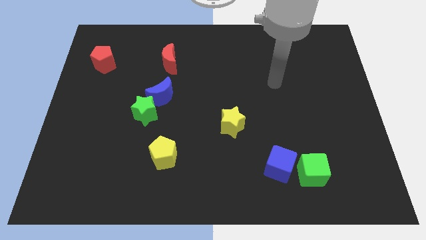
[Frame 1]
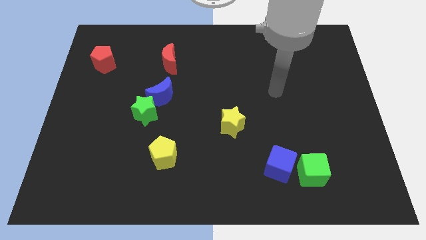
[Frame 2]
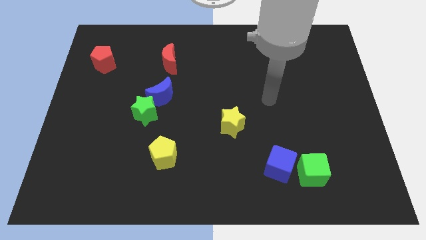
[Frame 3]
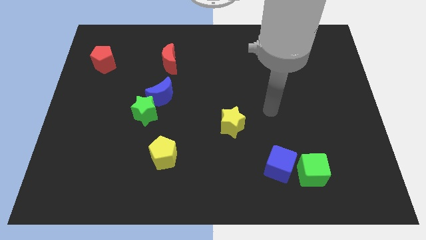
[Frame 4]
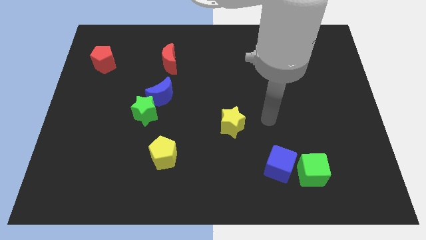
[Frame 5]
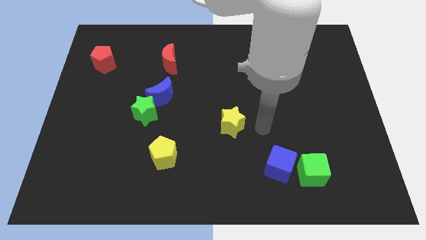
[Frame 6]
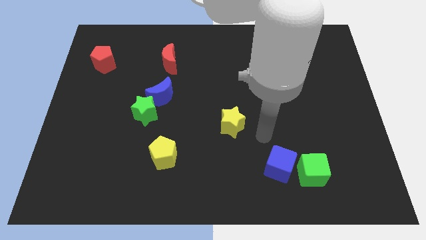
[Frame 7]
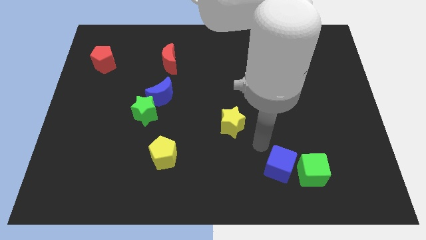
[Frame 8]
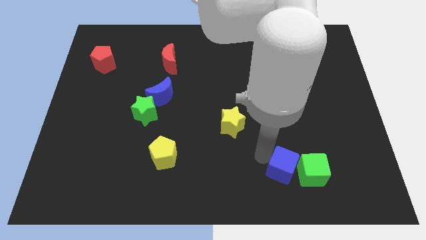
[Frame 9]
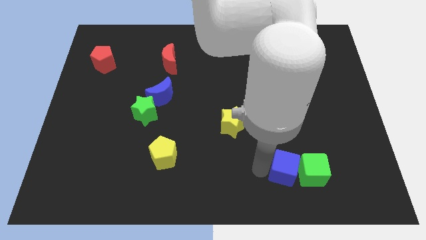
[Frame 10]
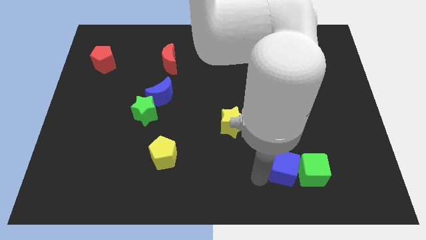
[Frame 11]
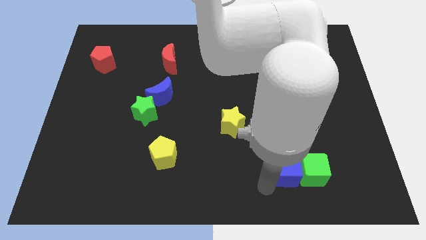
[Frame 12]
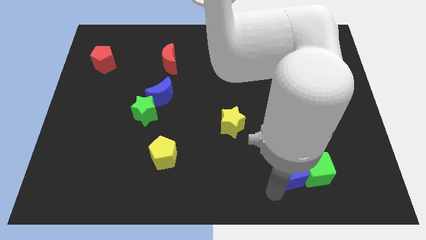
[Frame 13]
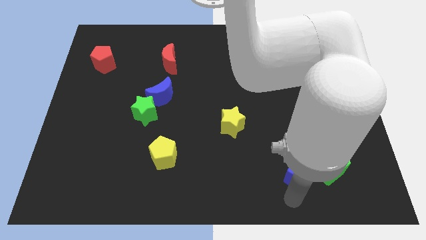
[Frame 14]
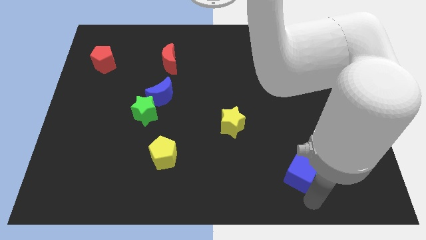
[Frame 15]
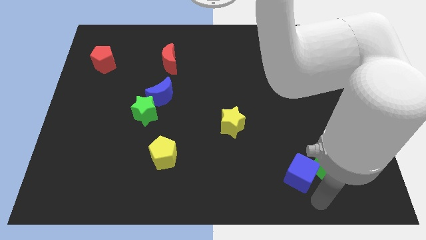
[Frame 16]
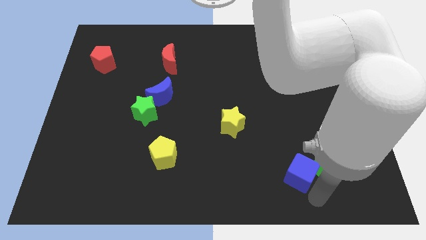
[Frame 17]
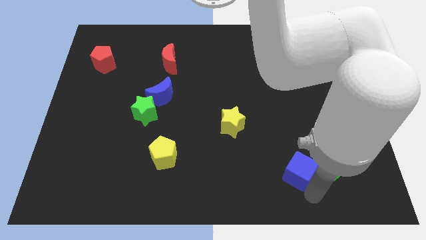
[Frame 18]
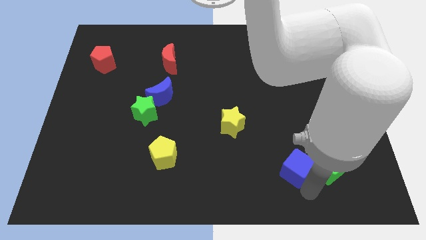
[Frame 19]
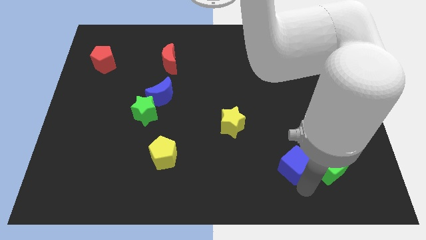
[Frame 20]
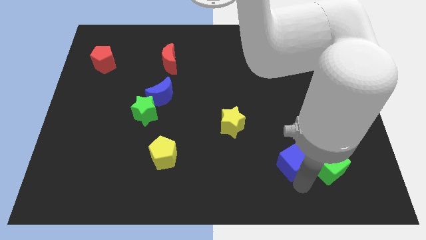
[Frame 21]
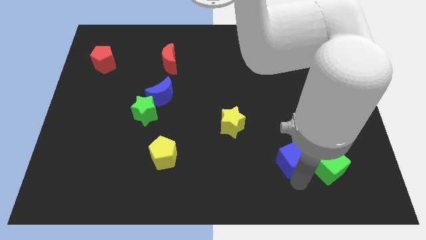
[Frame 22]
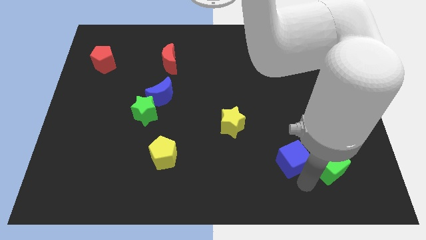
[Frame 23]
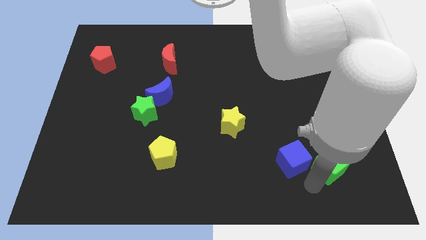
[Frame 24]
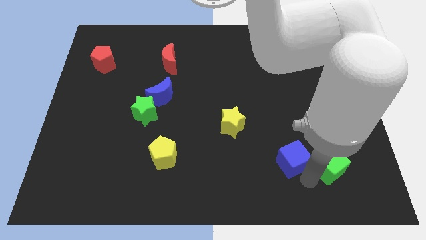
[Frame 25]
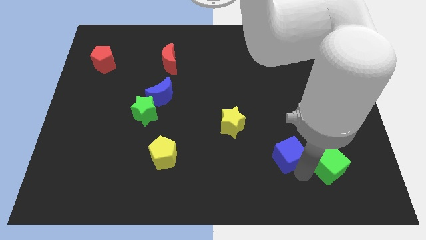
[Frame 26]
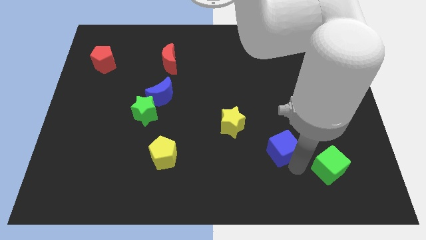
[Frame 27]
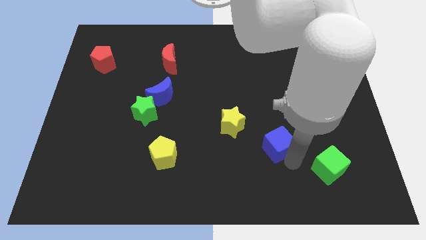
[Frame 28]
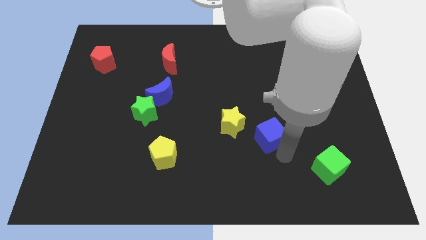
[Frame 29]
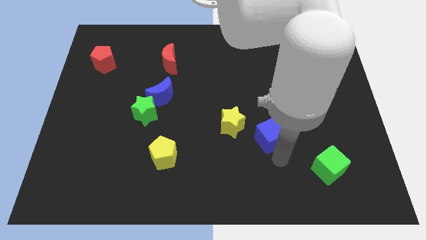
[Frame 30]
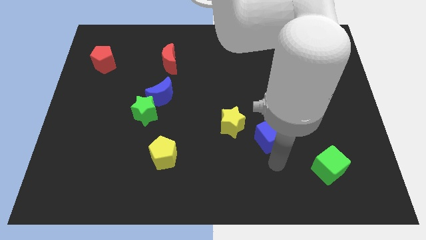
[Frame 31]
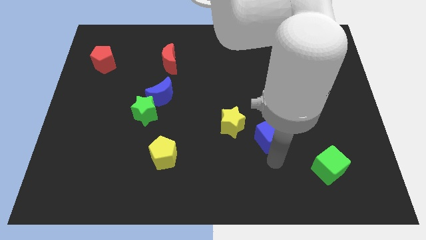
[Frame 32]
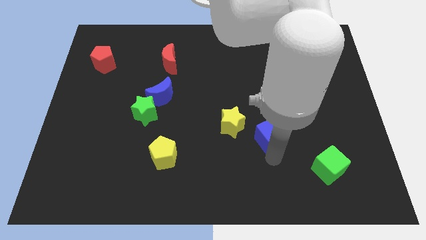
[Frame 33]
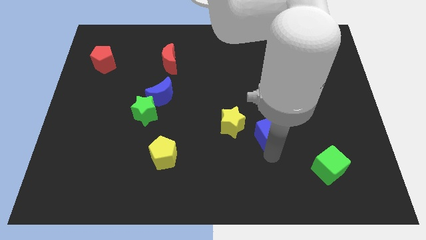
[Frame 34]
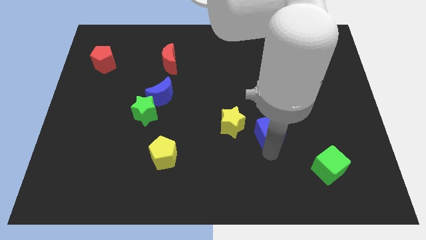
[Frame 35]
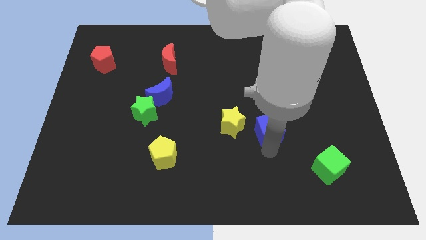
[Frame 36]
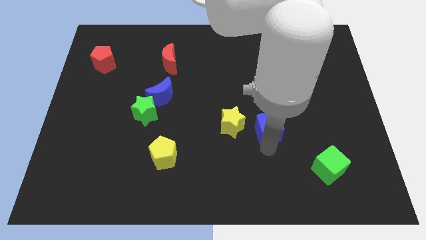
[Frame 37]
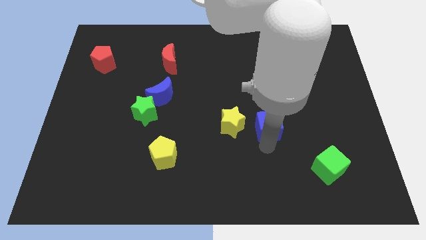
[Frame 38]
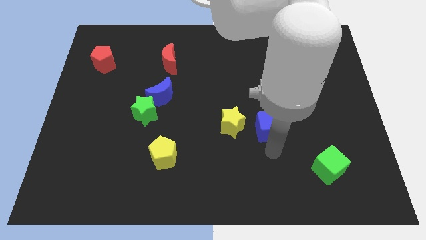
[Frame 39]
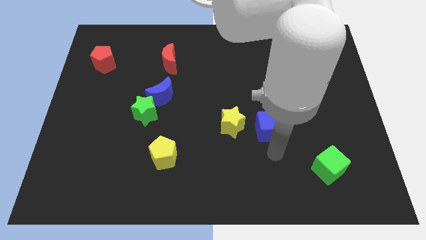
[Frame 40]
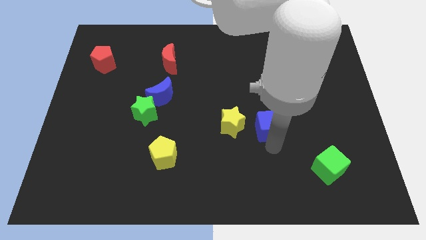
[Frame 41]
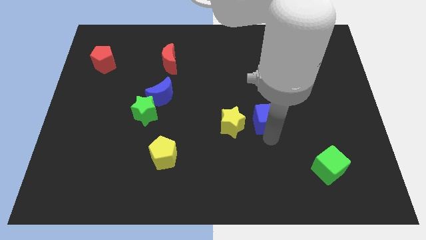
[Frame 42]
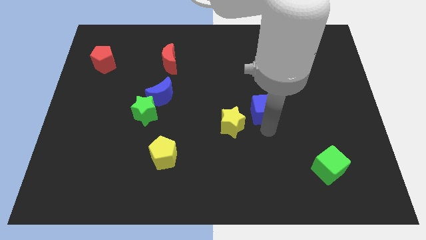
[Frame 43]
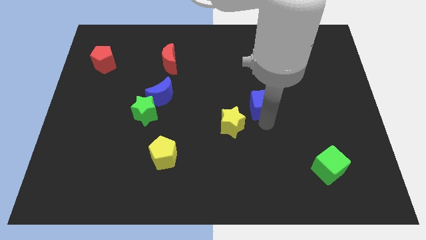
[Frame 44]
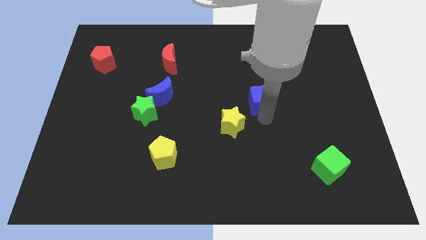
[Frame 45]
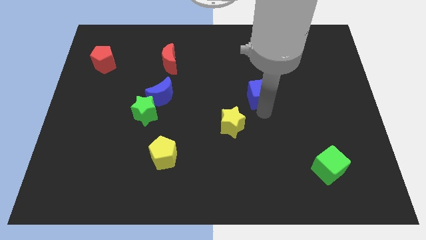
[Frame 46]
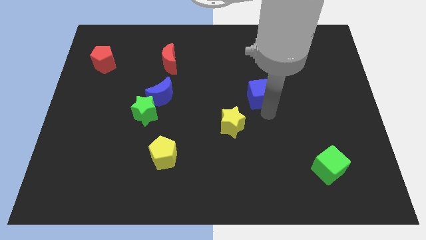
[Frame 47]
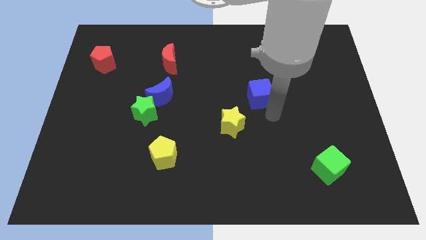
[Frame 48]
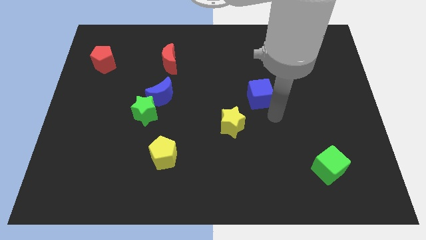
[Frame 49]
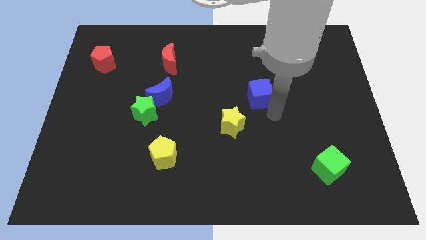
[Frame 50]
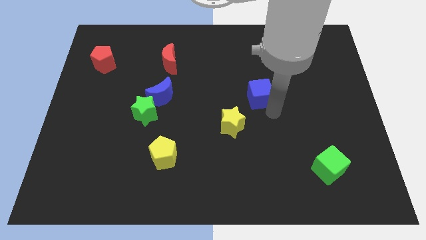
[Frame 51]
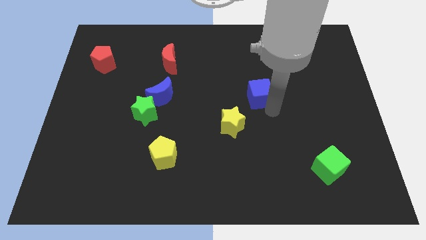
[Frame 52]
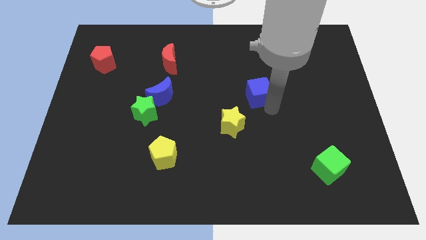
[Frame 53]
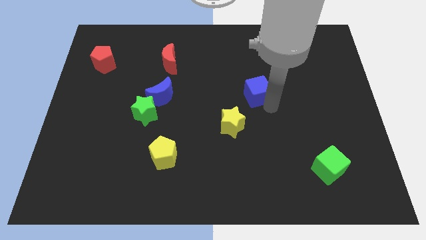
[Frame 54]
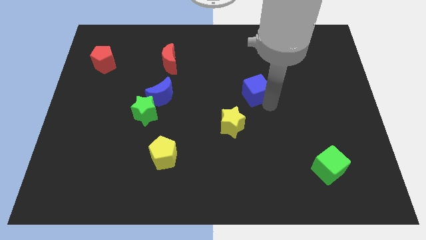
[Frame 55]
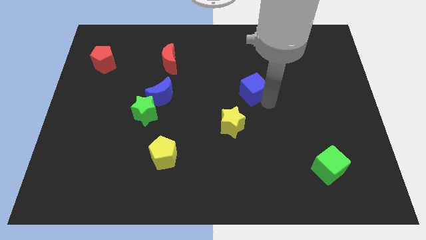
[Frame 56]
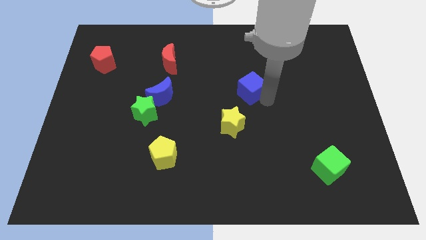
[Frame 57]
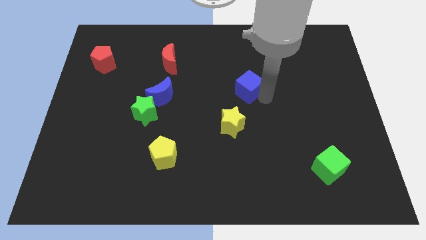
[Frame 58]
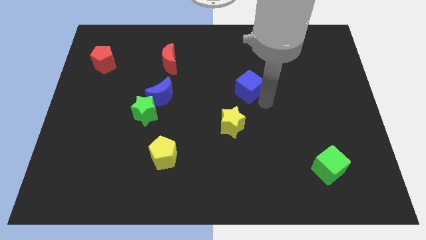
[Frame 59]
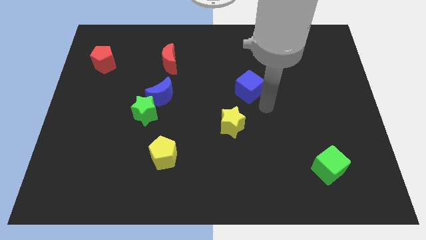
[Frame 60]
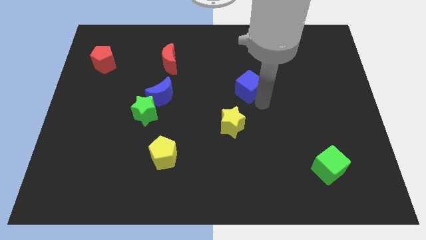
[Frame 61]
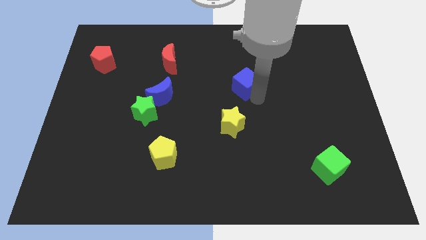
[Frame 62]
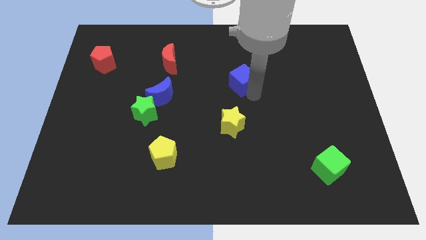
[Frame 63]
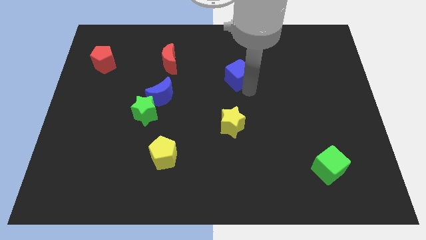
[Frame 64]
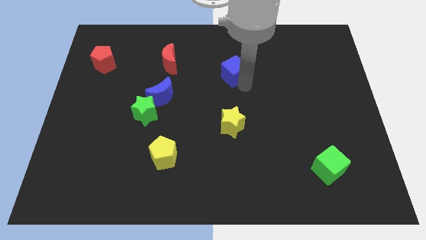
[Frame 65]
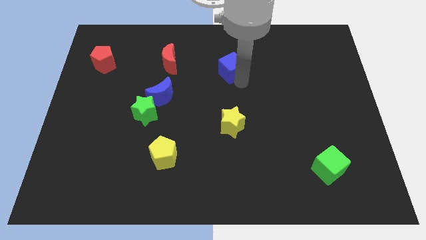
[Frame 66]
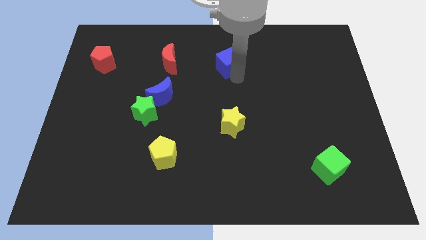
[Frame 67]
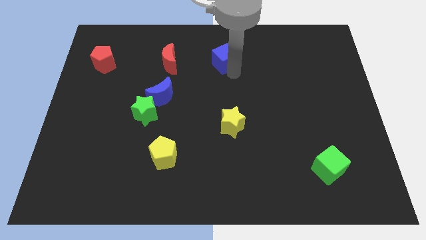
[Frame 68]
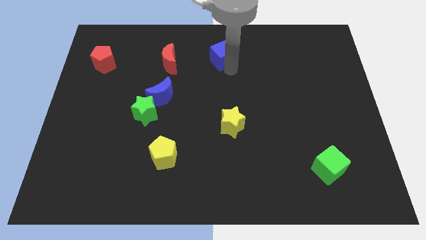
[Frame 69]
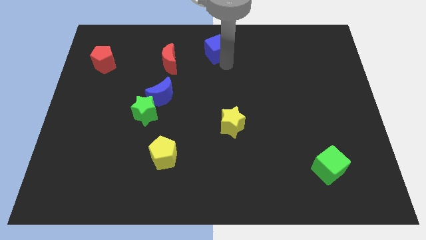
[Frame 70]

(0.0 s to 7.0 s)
push the blue cube to the towards your base
